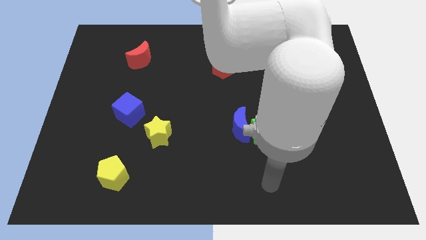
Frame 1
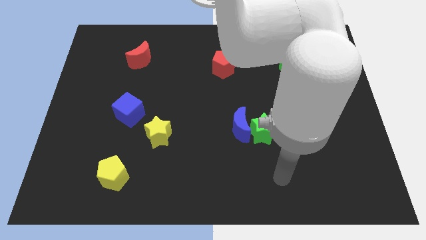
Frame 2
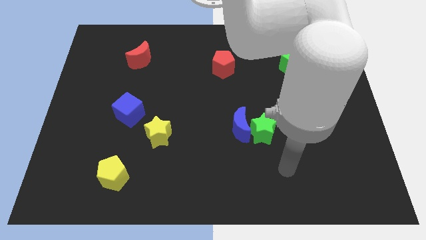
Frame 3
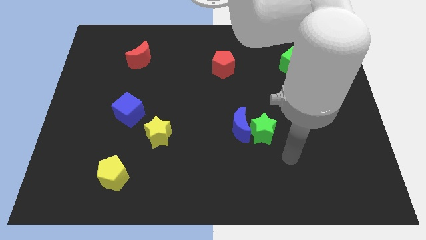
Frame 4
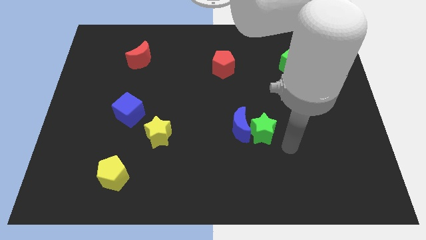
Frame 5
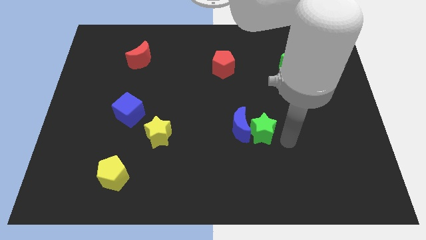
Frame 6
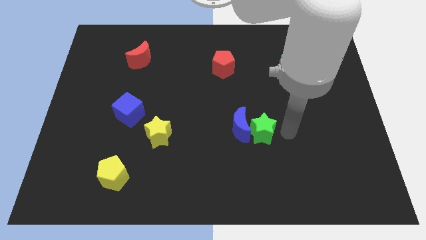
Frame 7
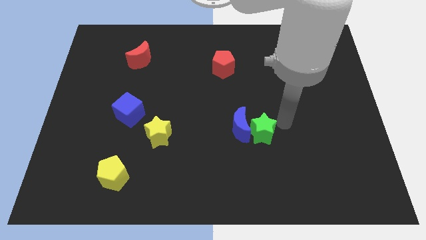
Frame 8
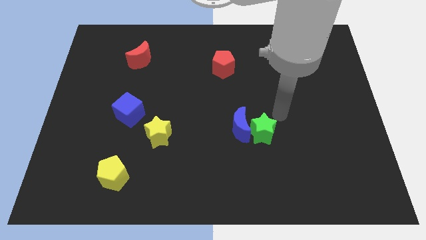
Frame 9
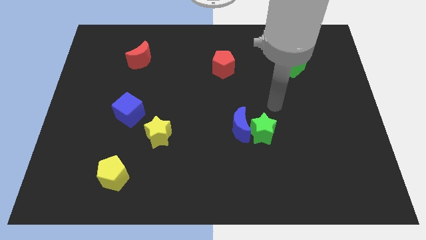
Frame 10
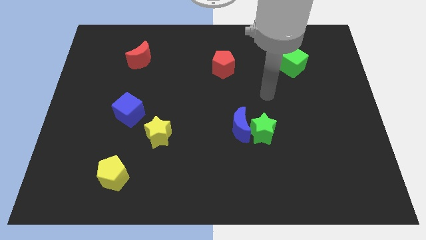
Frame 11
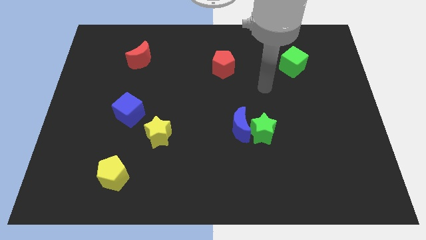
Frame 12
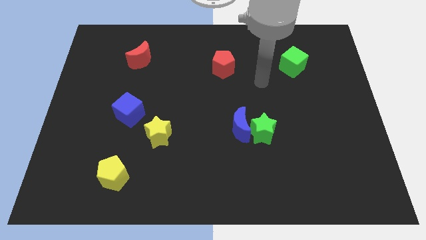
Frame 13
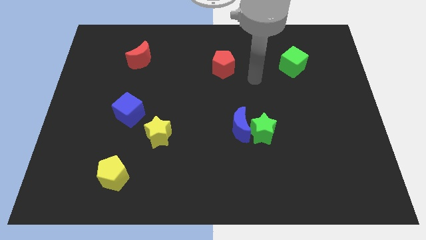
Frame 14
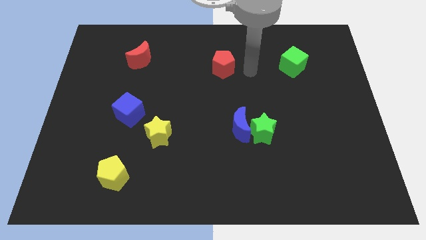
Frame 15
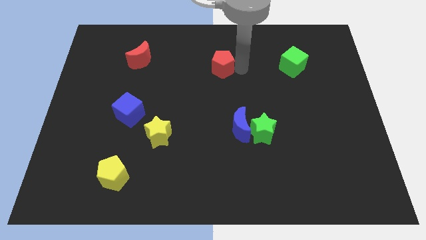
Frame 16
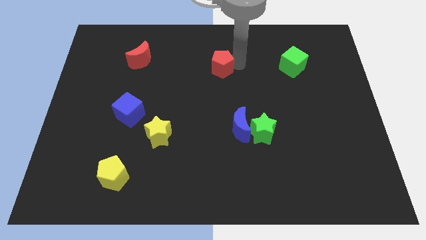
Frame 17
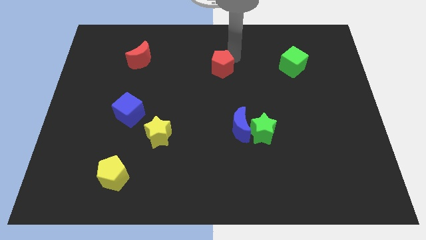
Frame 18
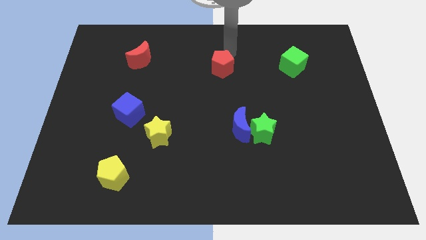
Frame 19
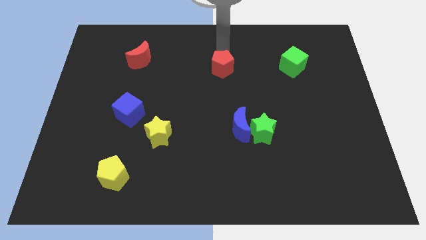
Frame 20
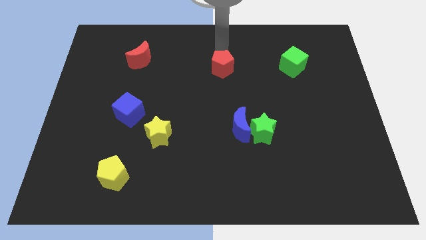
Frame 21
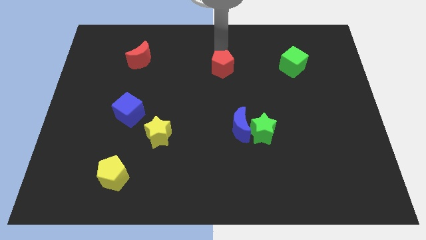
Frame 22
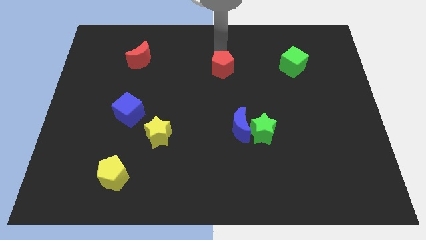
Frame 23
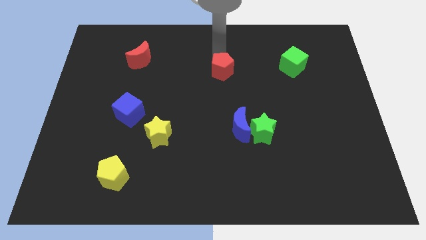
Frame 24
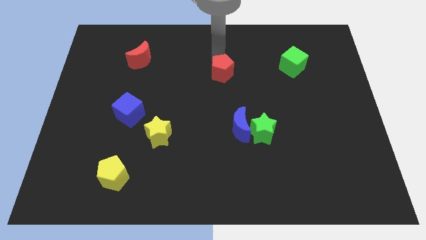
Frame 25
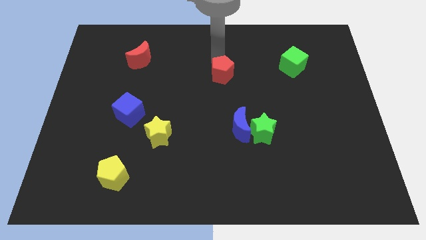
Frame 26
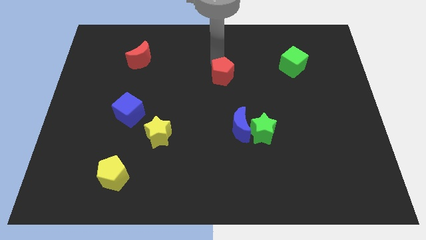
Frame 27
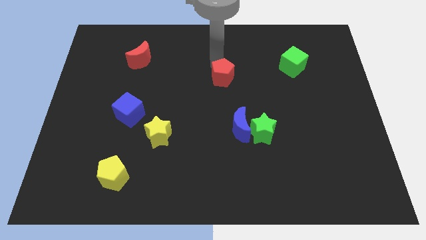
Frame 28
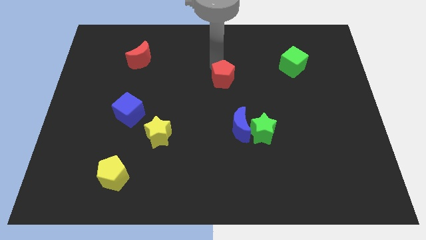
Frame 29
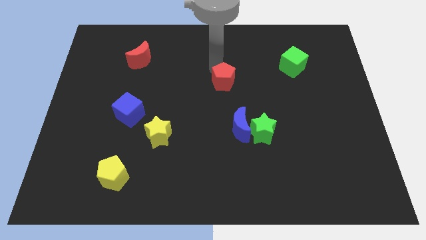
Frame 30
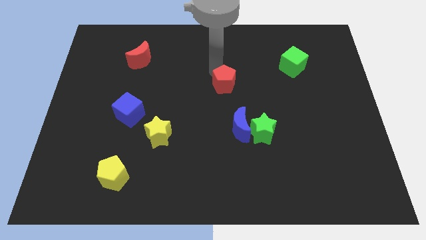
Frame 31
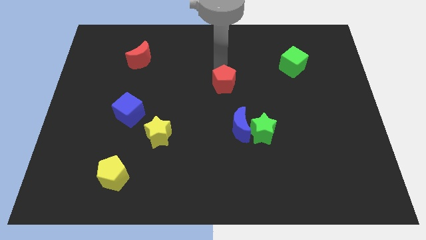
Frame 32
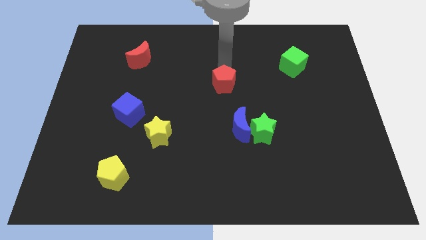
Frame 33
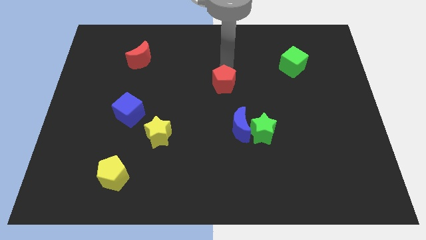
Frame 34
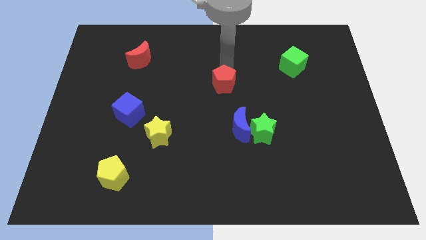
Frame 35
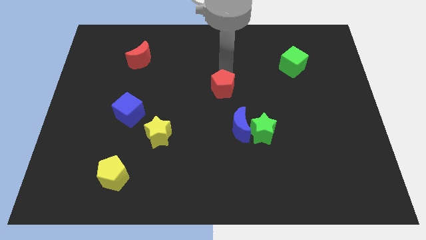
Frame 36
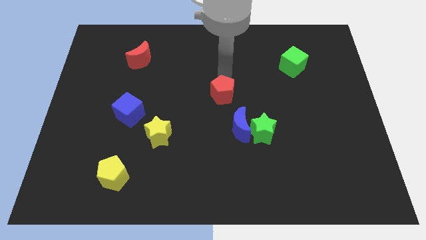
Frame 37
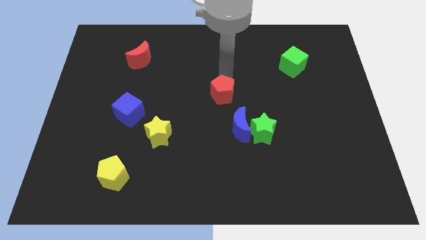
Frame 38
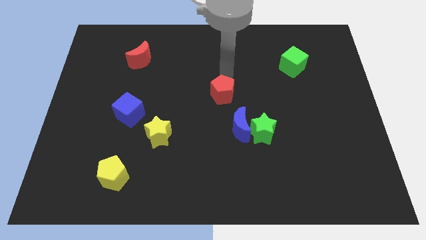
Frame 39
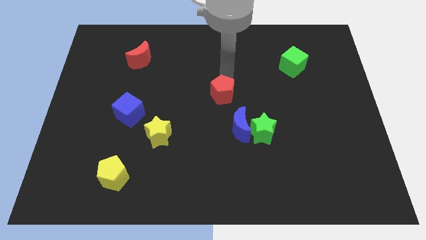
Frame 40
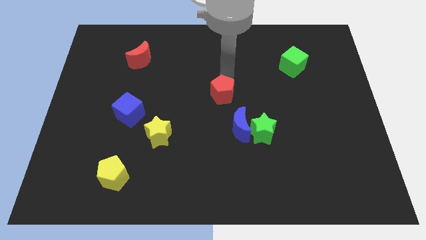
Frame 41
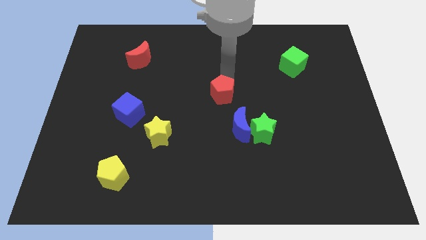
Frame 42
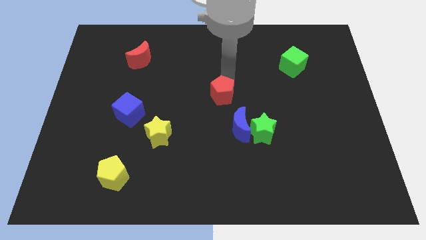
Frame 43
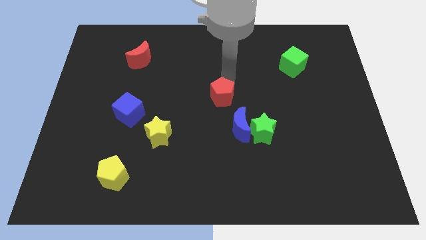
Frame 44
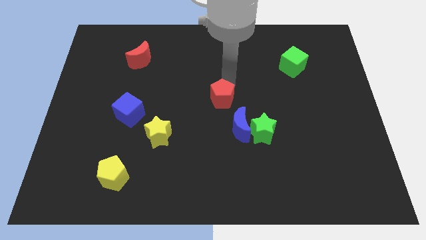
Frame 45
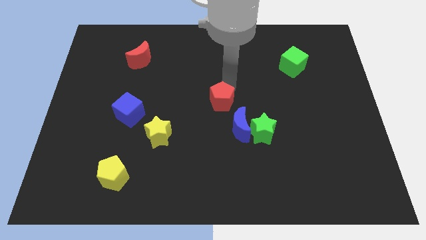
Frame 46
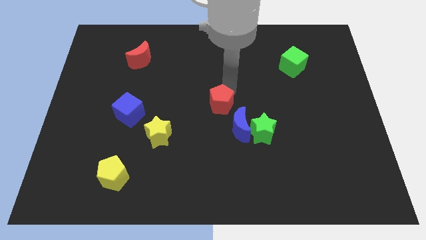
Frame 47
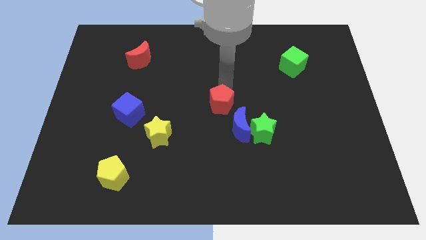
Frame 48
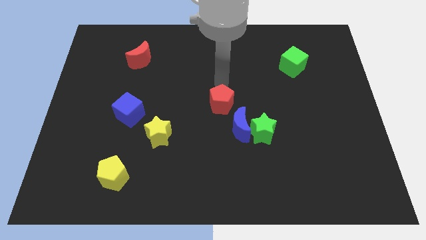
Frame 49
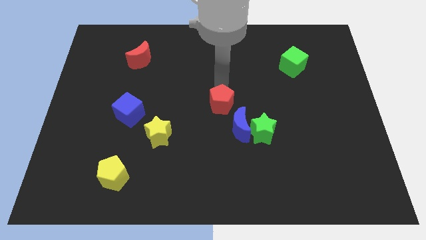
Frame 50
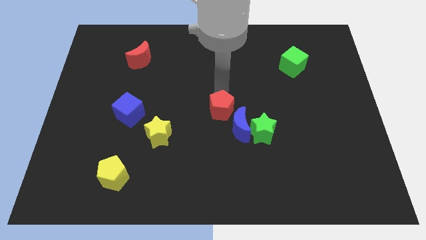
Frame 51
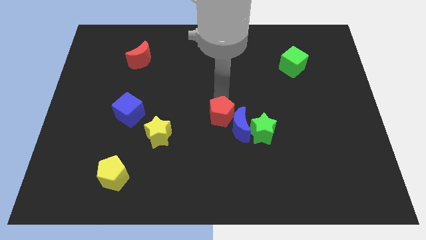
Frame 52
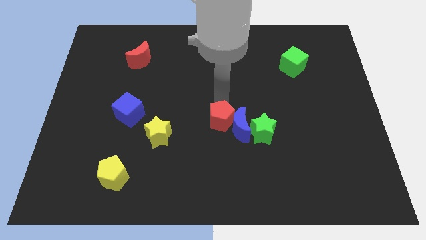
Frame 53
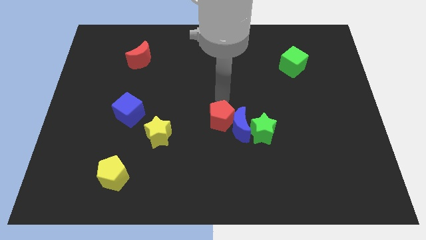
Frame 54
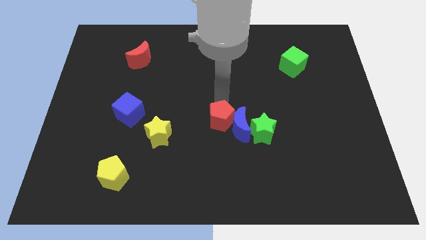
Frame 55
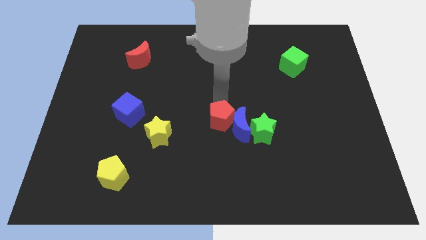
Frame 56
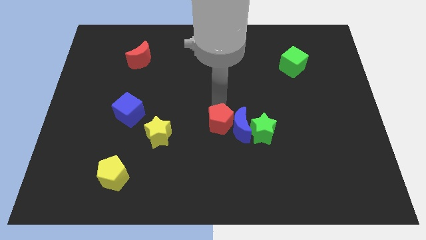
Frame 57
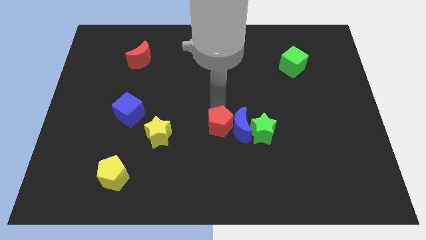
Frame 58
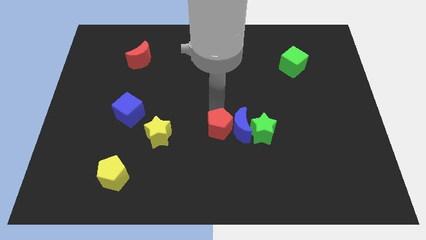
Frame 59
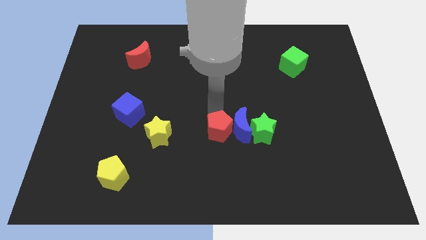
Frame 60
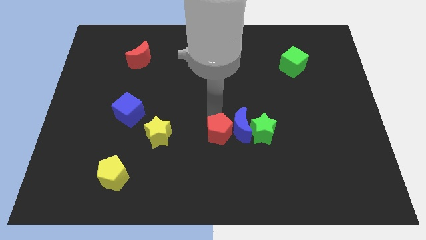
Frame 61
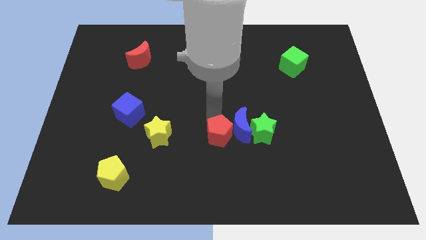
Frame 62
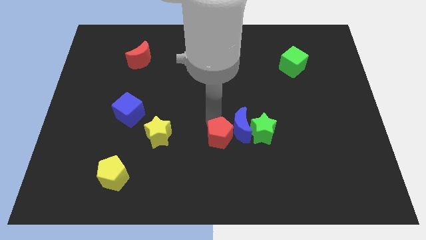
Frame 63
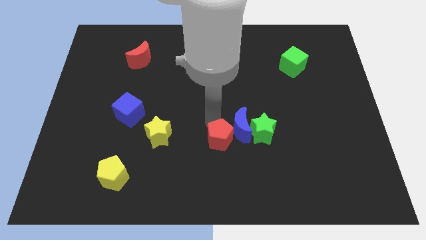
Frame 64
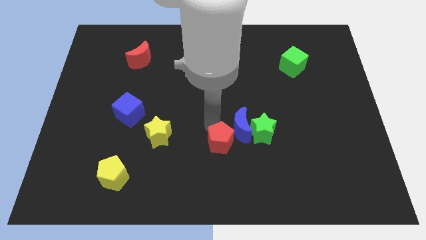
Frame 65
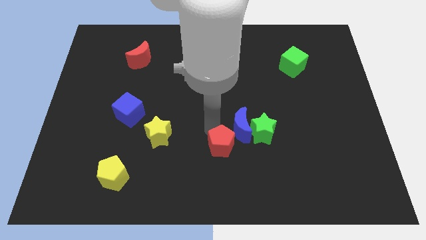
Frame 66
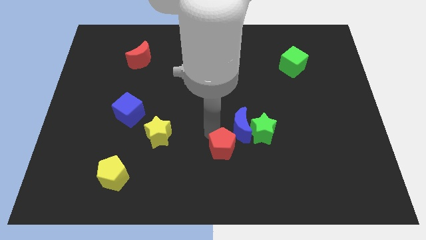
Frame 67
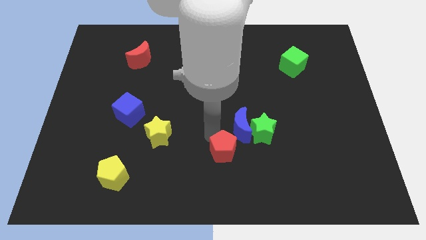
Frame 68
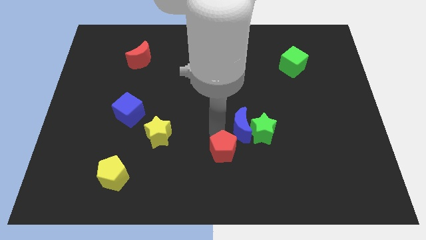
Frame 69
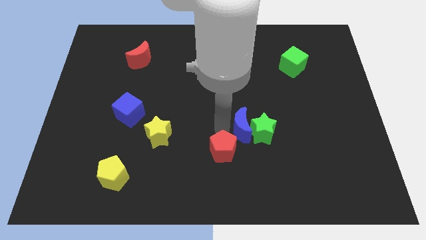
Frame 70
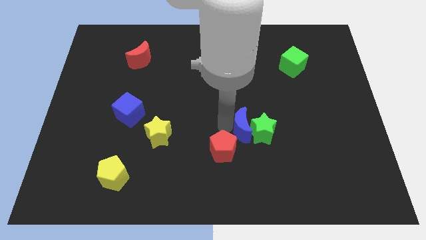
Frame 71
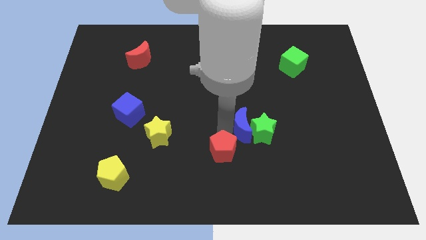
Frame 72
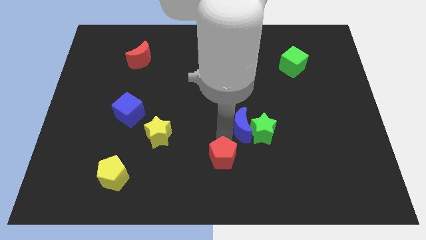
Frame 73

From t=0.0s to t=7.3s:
slide the red pentagon to the bottom
